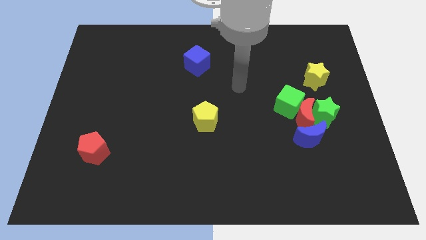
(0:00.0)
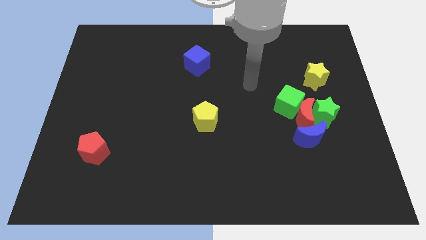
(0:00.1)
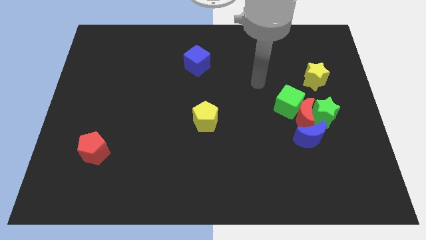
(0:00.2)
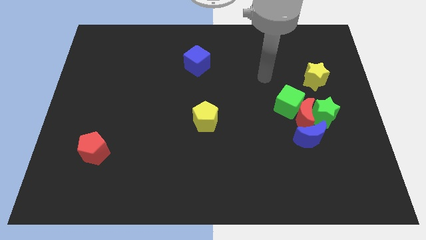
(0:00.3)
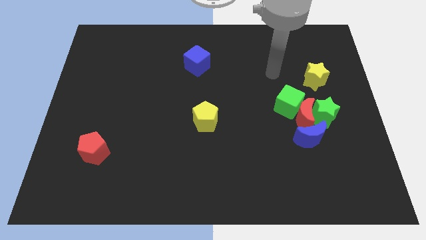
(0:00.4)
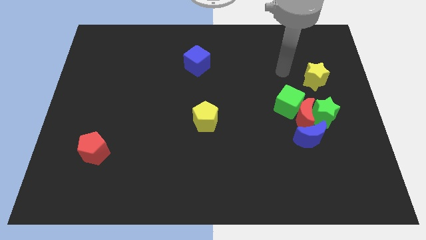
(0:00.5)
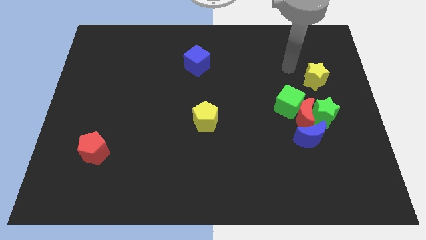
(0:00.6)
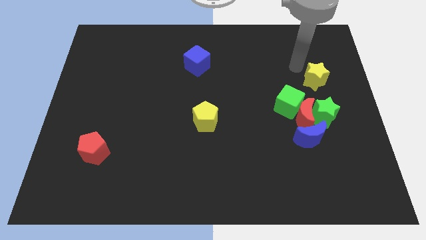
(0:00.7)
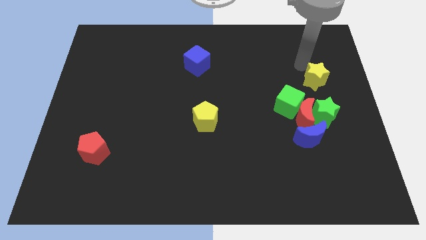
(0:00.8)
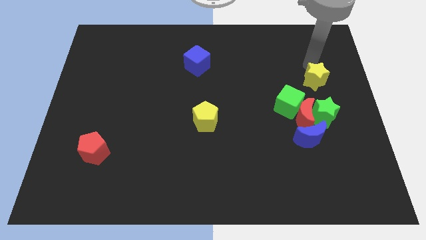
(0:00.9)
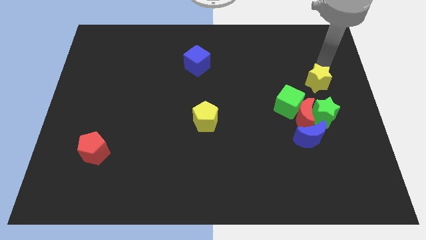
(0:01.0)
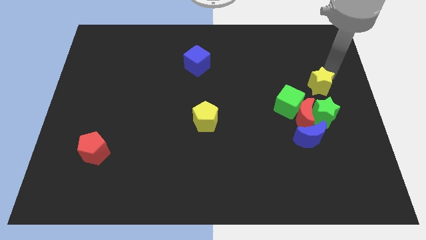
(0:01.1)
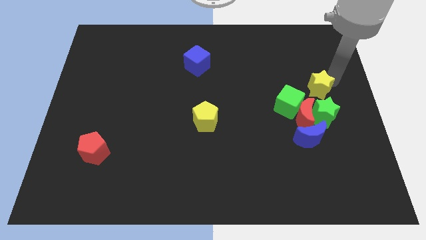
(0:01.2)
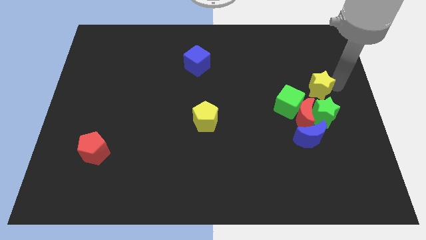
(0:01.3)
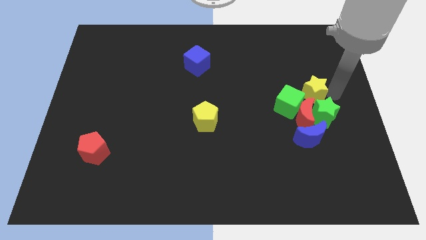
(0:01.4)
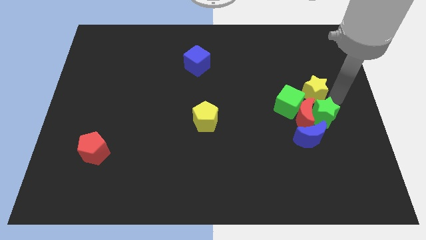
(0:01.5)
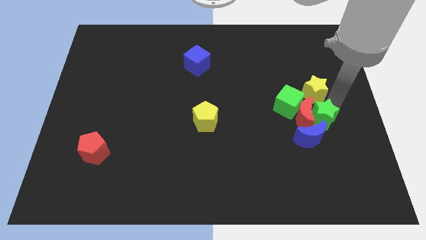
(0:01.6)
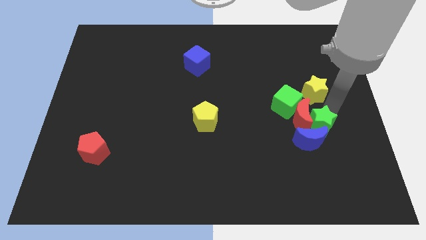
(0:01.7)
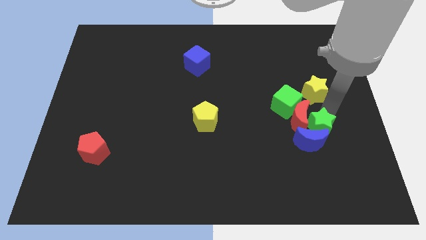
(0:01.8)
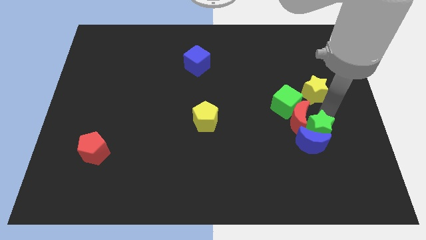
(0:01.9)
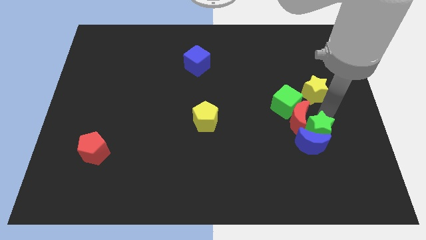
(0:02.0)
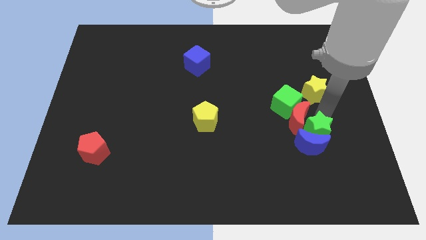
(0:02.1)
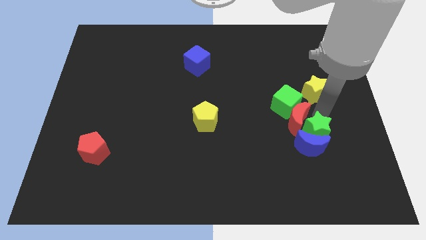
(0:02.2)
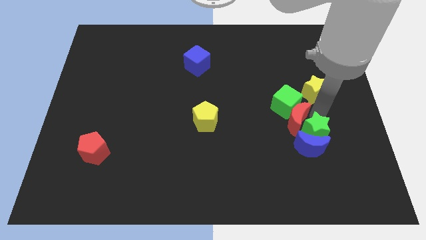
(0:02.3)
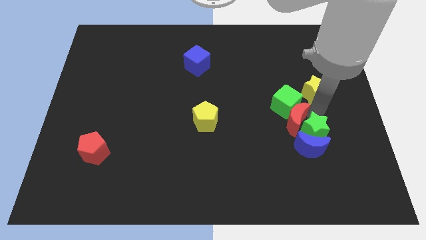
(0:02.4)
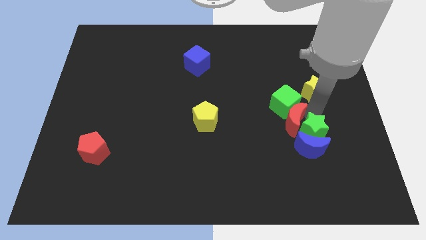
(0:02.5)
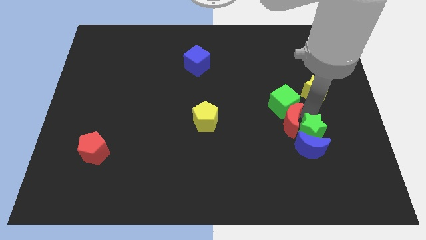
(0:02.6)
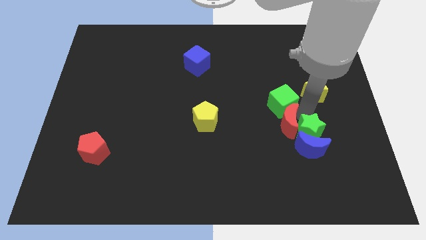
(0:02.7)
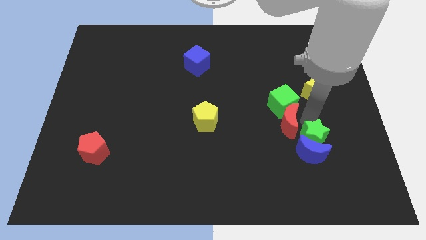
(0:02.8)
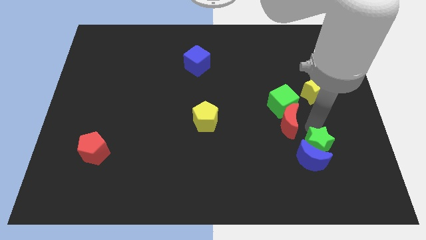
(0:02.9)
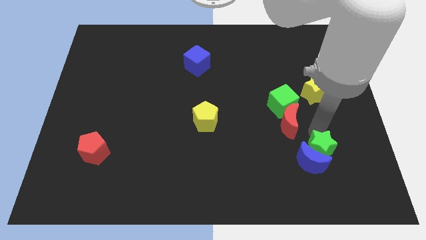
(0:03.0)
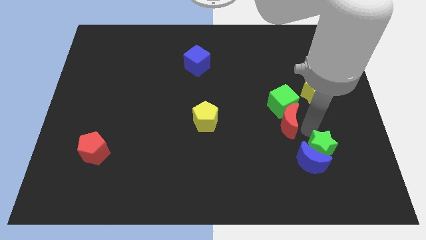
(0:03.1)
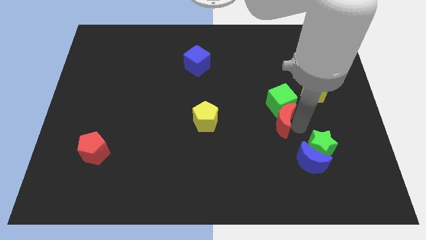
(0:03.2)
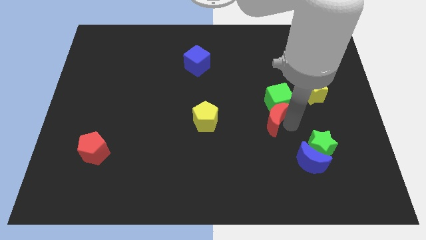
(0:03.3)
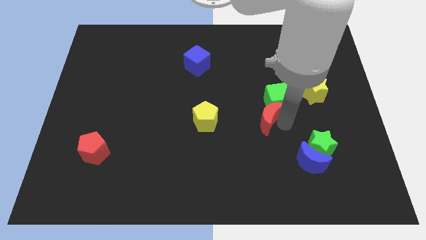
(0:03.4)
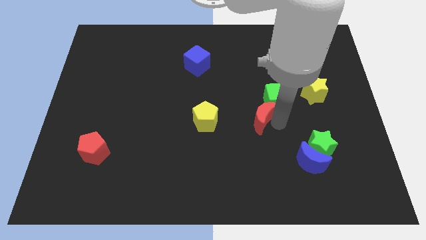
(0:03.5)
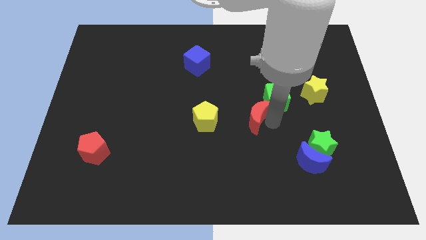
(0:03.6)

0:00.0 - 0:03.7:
separate the red moon from the green cube, green star, and blue moon

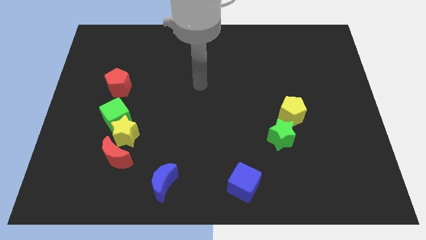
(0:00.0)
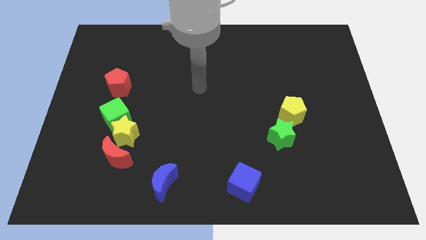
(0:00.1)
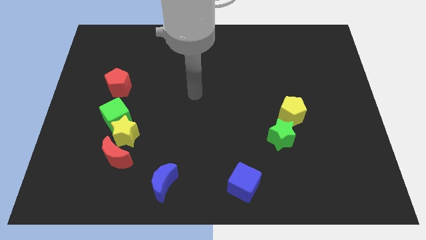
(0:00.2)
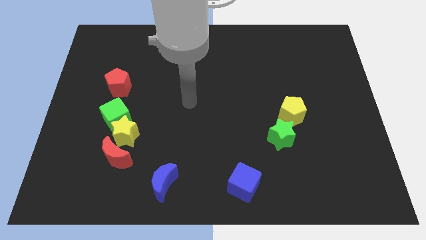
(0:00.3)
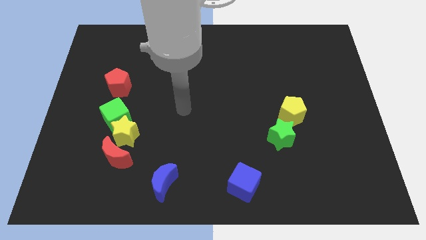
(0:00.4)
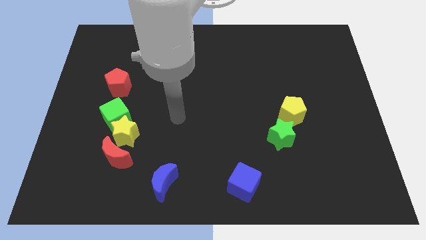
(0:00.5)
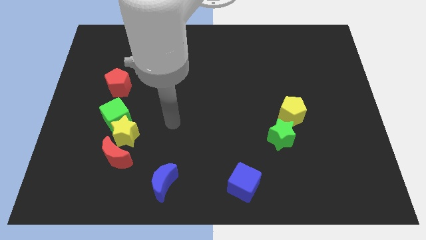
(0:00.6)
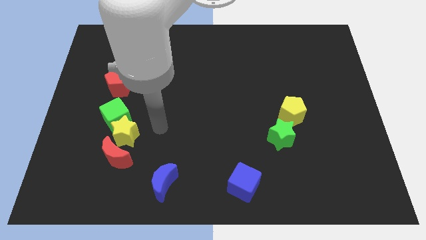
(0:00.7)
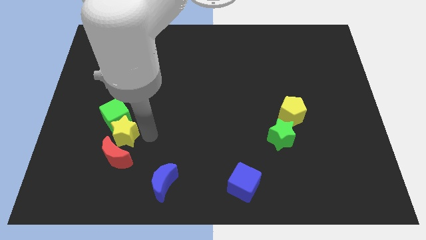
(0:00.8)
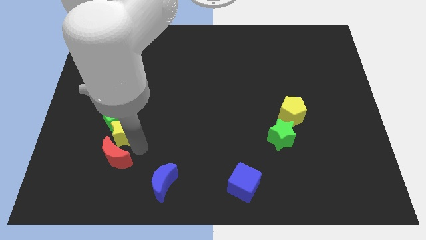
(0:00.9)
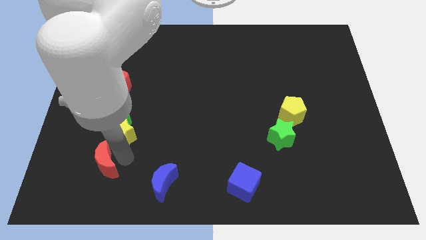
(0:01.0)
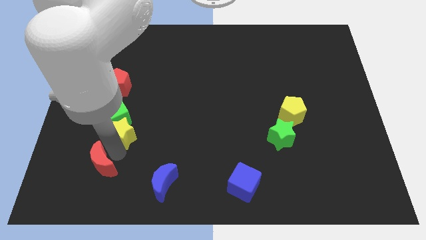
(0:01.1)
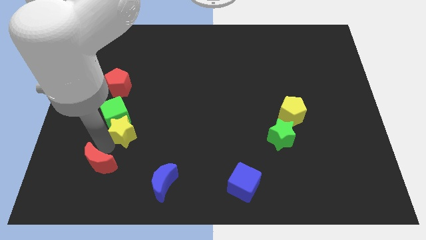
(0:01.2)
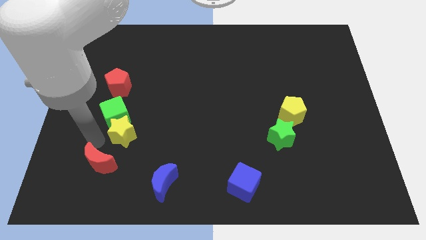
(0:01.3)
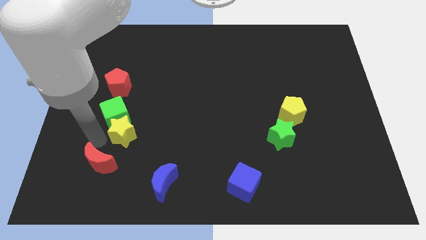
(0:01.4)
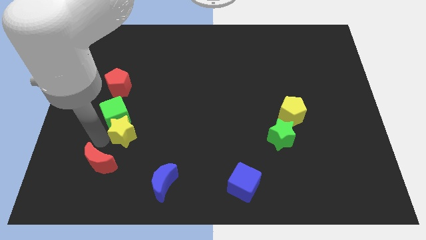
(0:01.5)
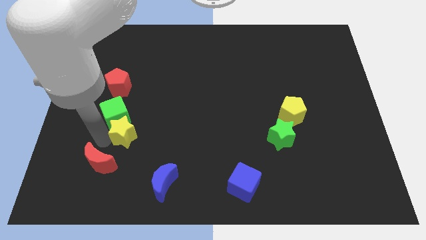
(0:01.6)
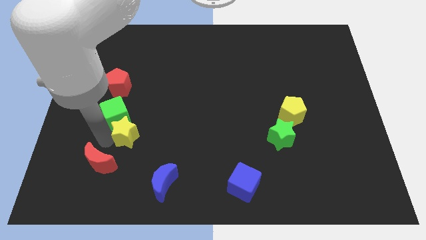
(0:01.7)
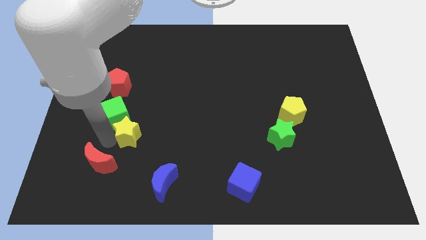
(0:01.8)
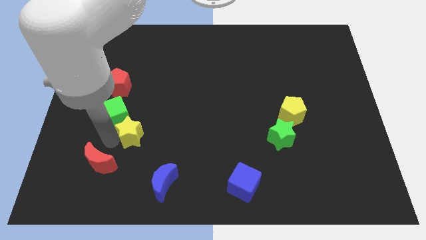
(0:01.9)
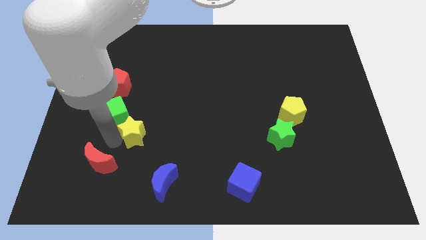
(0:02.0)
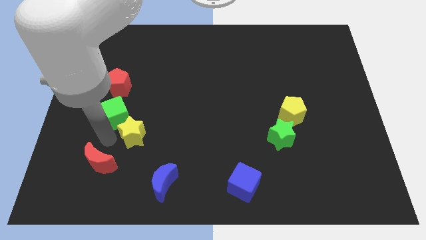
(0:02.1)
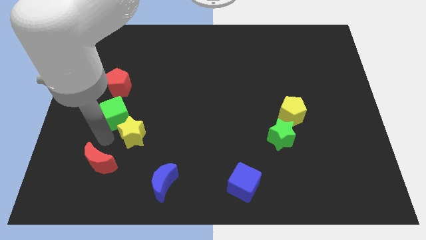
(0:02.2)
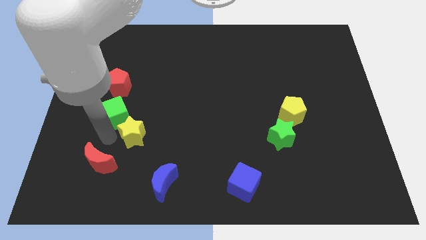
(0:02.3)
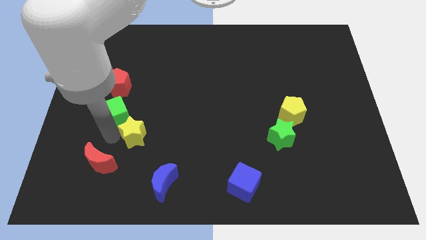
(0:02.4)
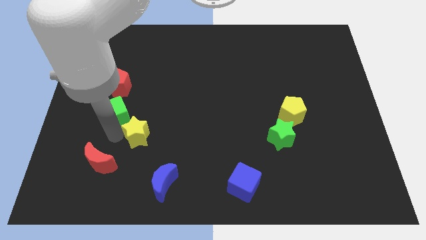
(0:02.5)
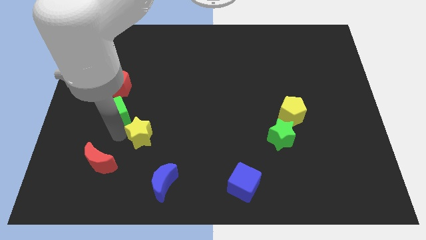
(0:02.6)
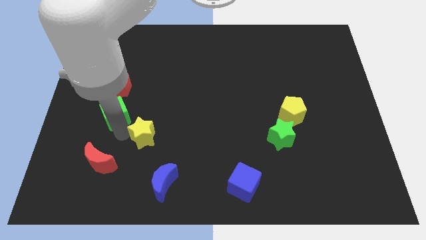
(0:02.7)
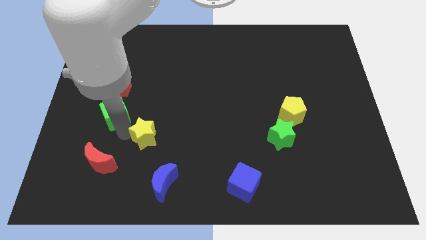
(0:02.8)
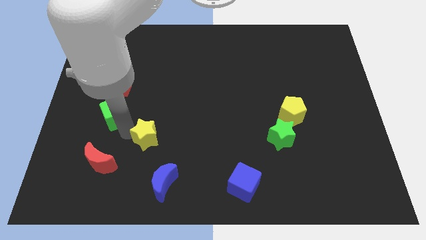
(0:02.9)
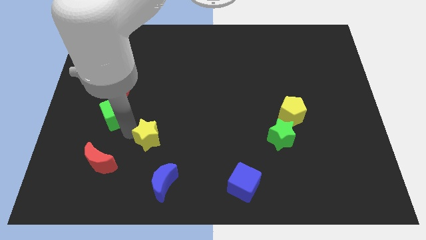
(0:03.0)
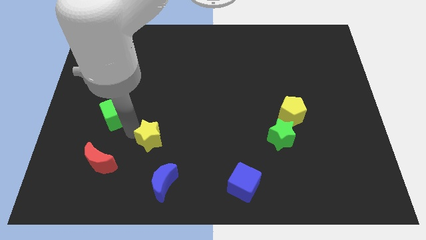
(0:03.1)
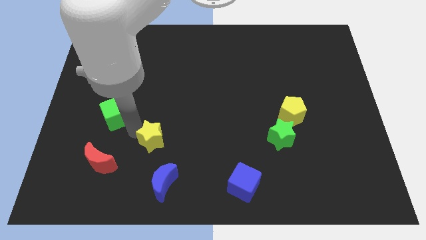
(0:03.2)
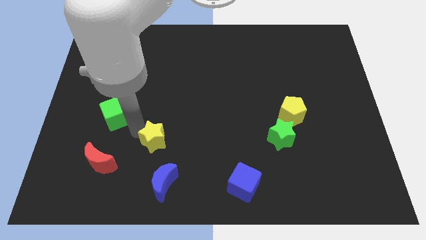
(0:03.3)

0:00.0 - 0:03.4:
pull the yellow star apart from the green cube and red moon

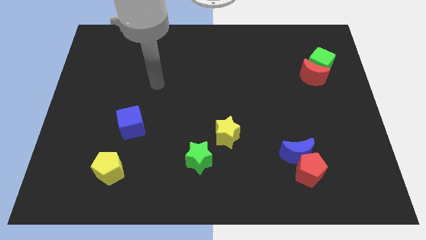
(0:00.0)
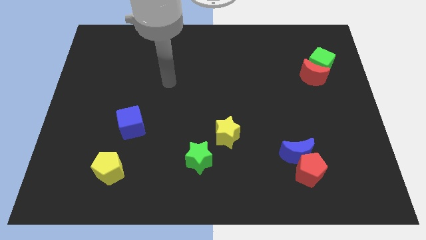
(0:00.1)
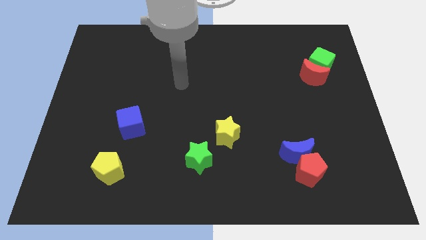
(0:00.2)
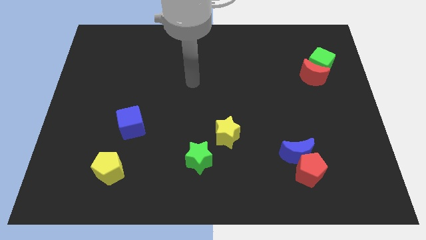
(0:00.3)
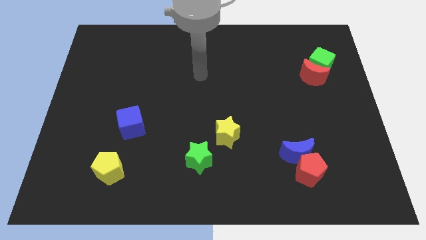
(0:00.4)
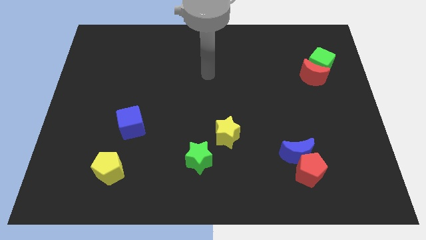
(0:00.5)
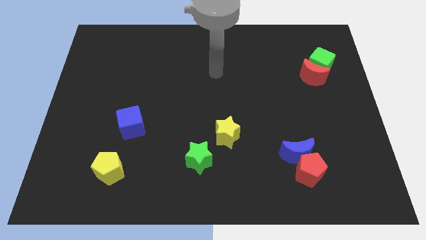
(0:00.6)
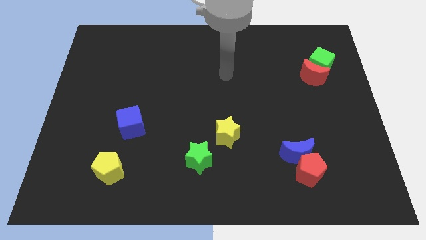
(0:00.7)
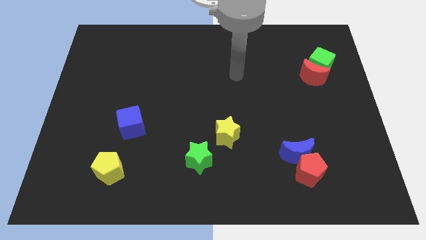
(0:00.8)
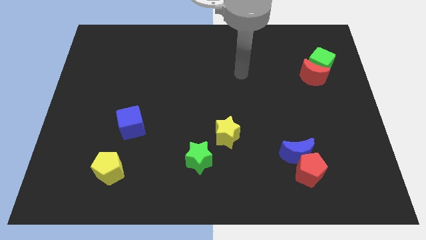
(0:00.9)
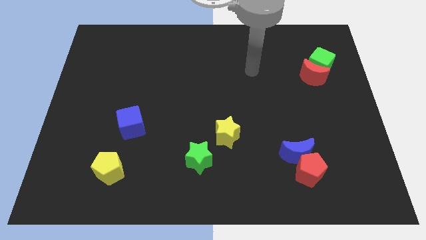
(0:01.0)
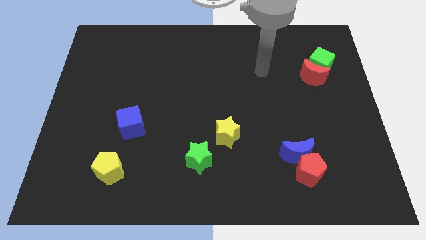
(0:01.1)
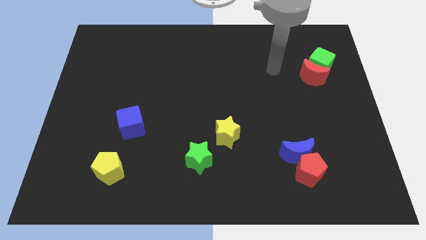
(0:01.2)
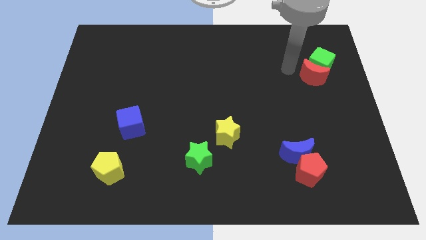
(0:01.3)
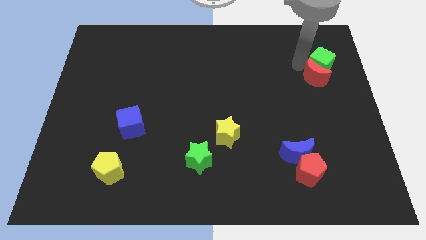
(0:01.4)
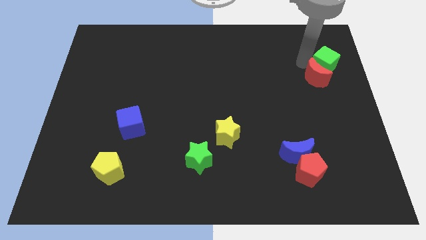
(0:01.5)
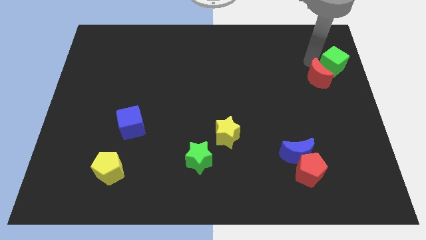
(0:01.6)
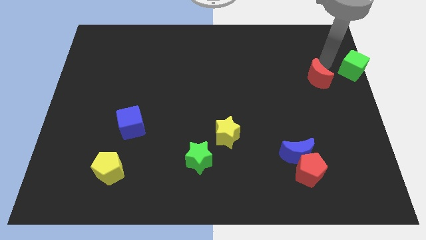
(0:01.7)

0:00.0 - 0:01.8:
separate the red moon from the green cube

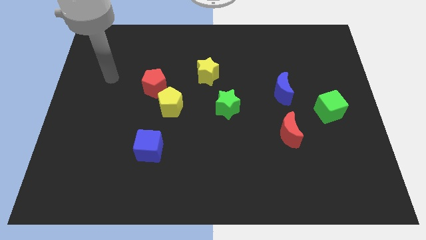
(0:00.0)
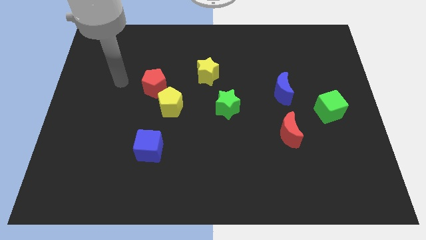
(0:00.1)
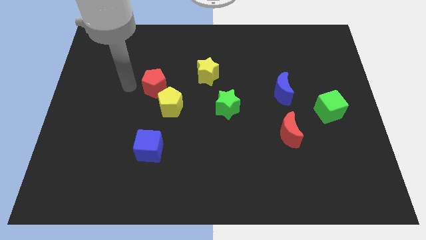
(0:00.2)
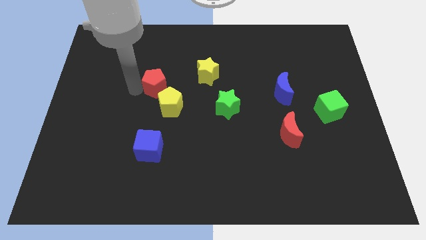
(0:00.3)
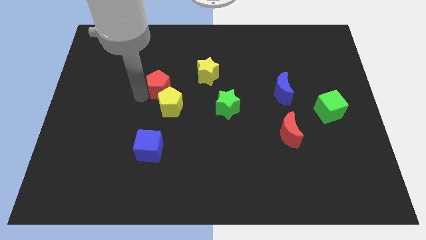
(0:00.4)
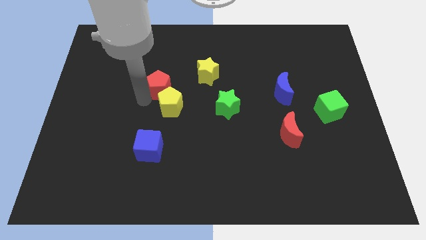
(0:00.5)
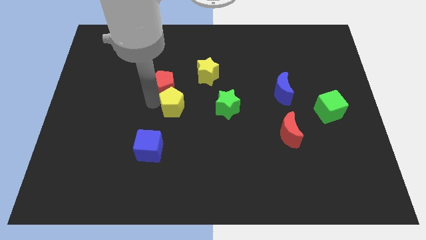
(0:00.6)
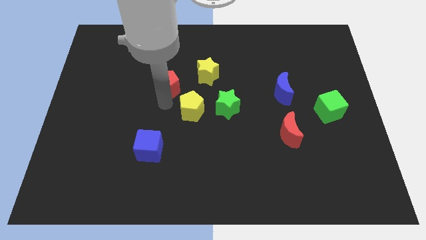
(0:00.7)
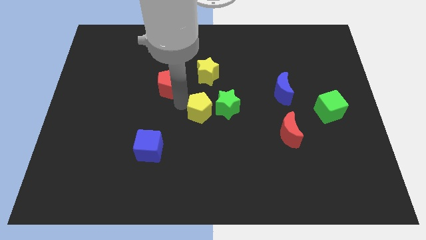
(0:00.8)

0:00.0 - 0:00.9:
pull the red pentagon apart from the yellow pentagon
